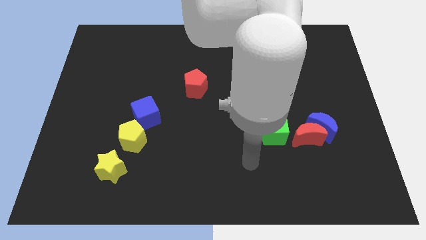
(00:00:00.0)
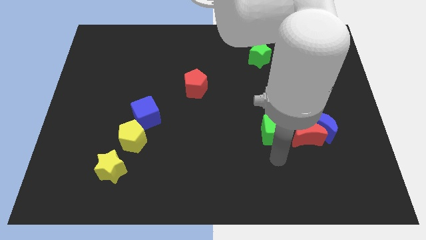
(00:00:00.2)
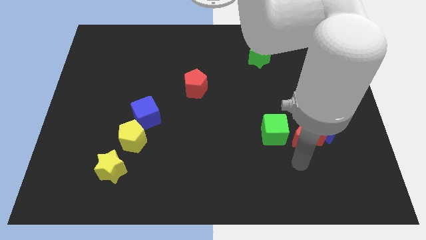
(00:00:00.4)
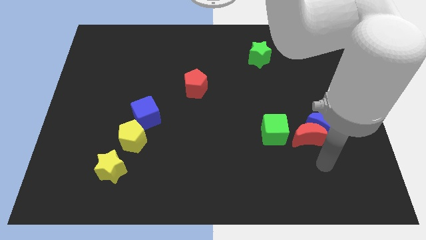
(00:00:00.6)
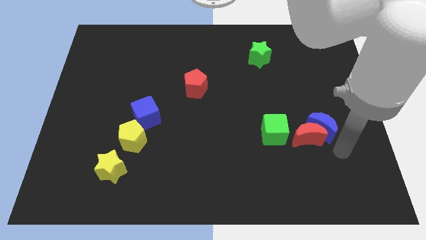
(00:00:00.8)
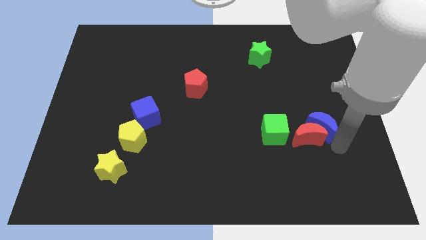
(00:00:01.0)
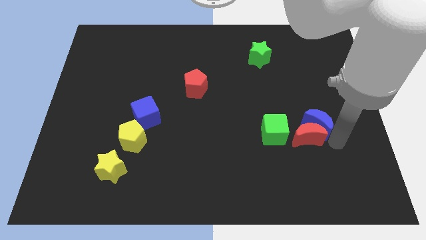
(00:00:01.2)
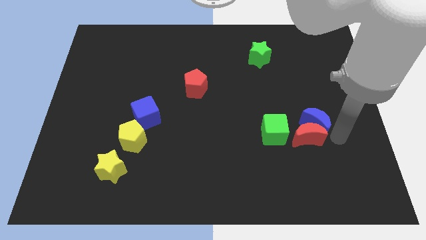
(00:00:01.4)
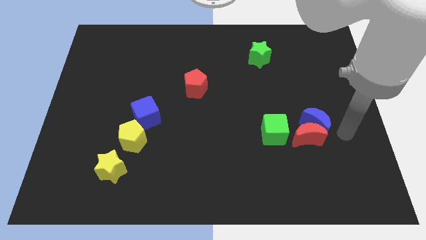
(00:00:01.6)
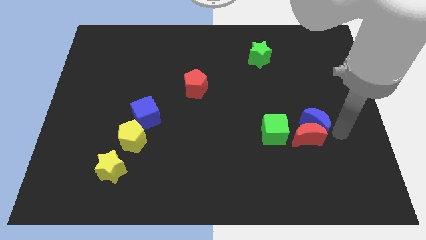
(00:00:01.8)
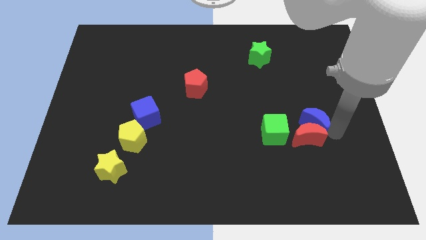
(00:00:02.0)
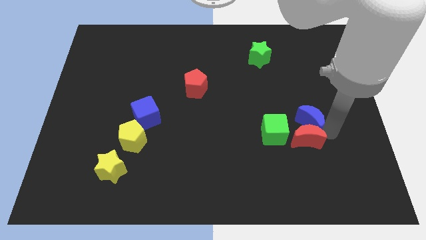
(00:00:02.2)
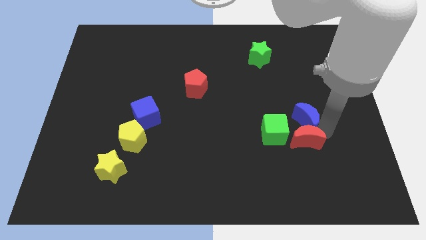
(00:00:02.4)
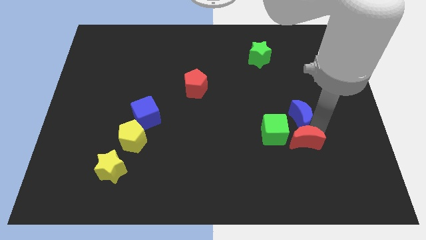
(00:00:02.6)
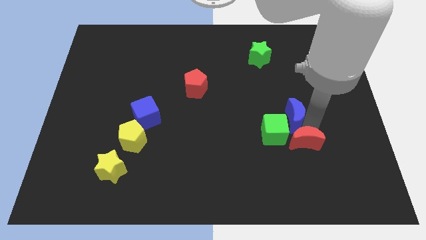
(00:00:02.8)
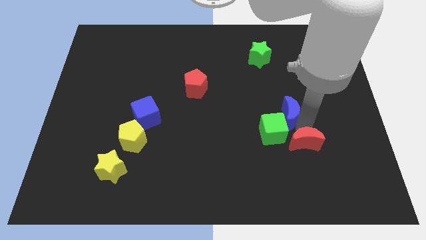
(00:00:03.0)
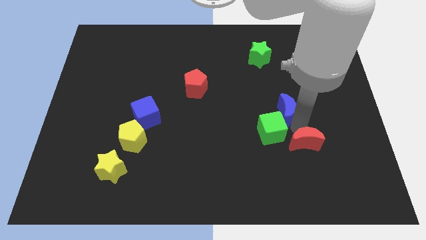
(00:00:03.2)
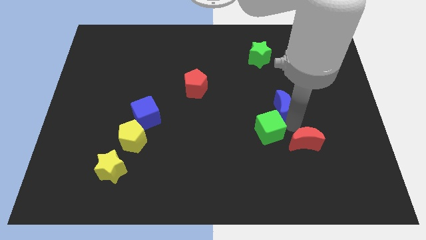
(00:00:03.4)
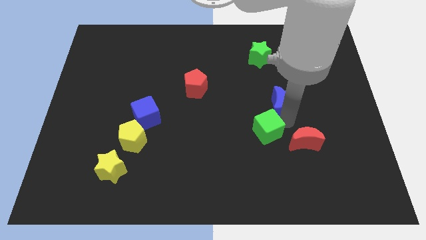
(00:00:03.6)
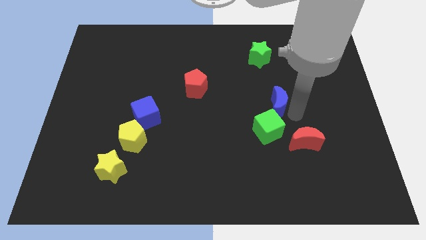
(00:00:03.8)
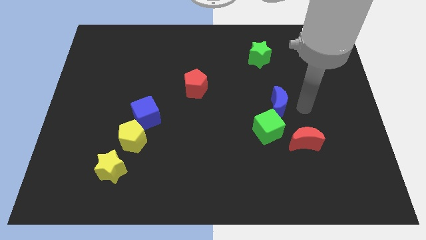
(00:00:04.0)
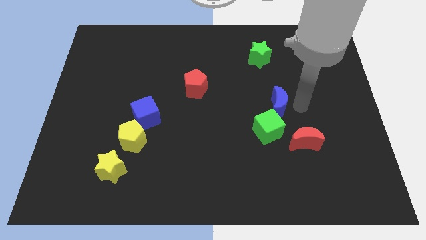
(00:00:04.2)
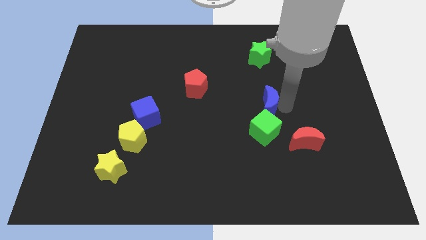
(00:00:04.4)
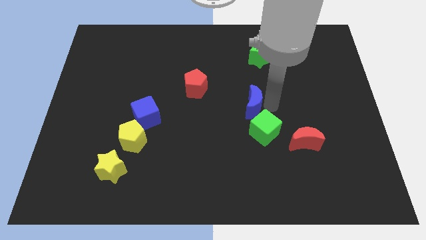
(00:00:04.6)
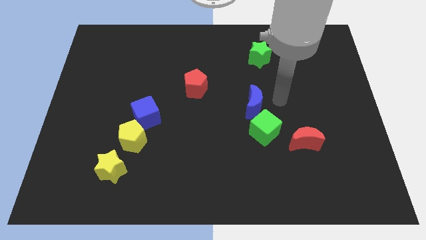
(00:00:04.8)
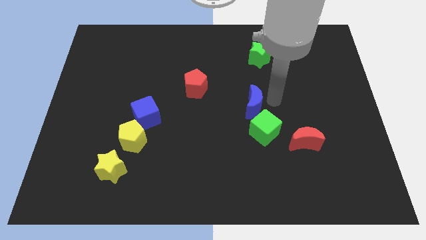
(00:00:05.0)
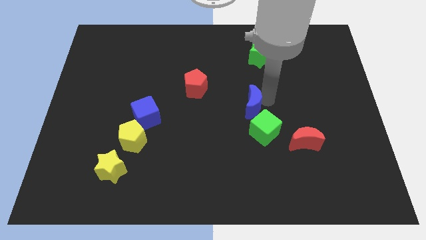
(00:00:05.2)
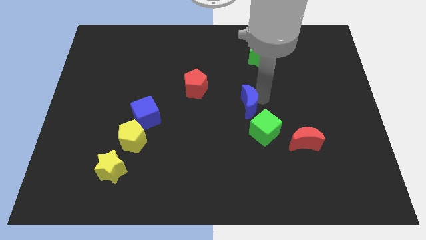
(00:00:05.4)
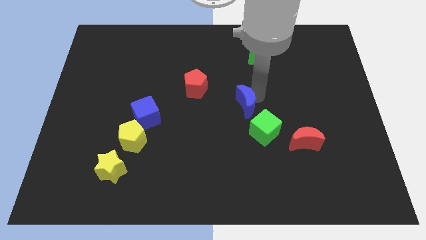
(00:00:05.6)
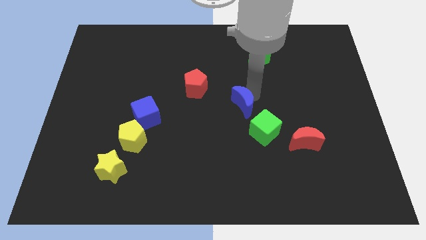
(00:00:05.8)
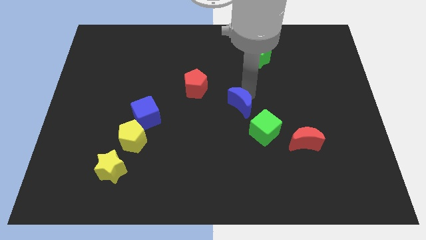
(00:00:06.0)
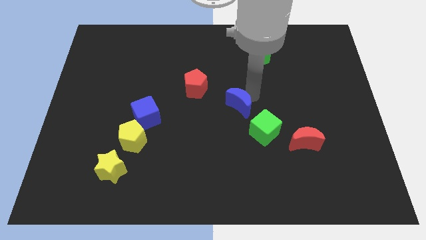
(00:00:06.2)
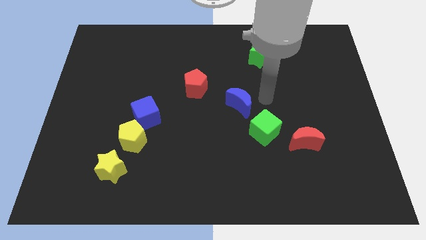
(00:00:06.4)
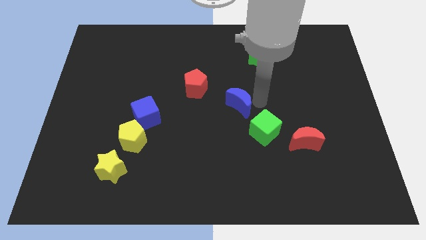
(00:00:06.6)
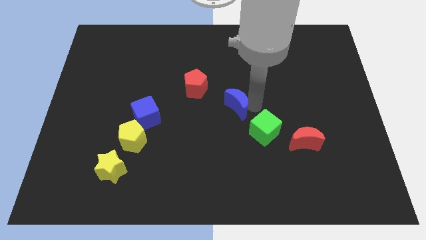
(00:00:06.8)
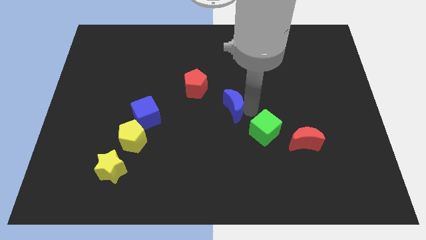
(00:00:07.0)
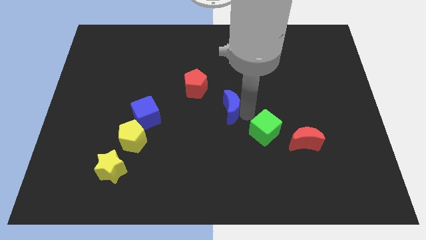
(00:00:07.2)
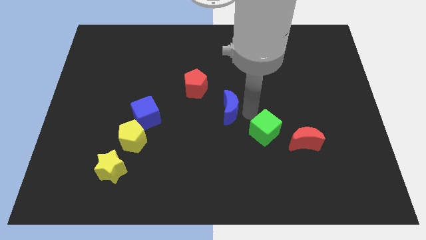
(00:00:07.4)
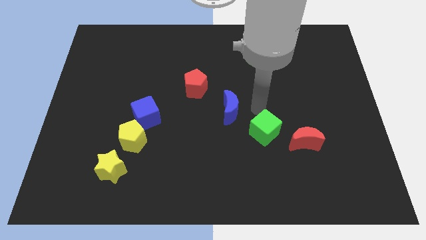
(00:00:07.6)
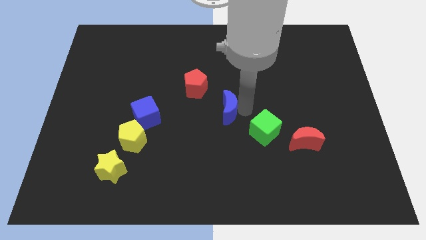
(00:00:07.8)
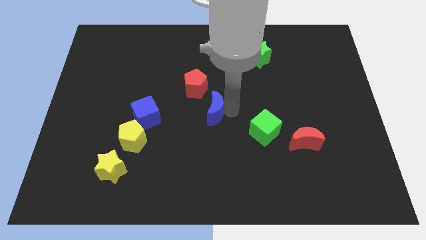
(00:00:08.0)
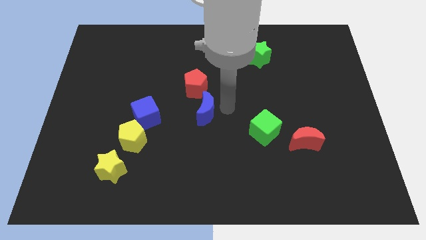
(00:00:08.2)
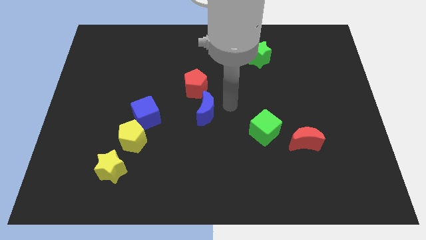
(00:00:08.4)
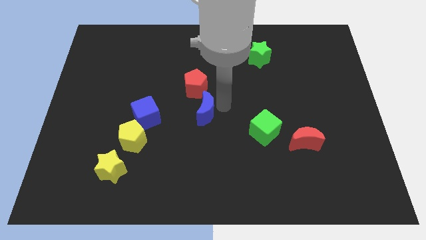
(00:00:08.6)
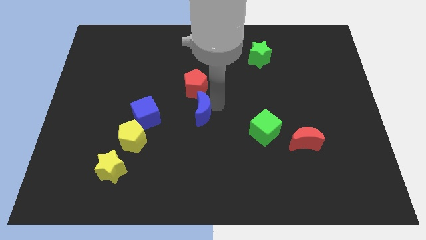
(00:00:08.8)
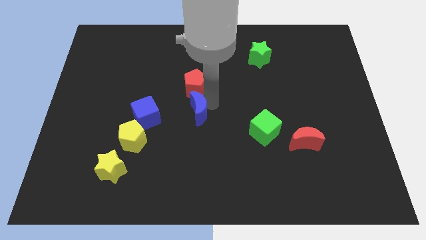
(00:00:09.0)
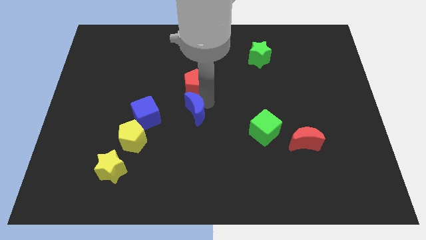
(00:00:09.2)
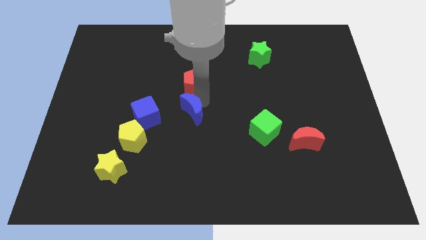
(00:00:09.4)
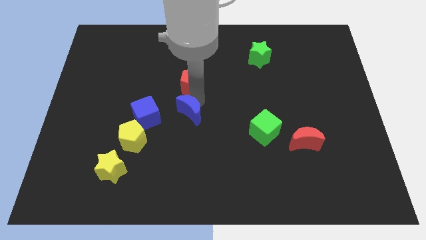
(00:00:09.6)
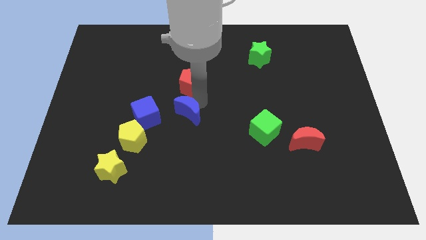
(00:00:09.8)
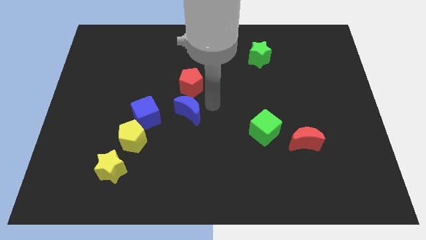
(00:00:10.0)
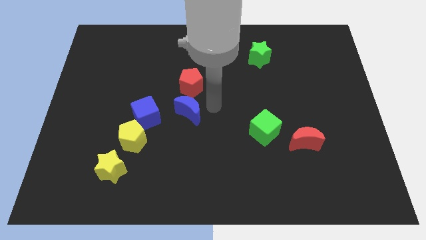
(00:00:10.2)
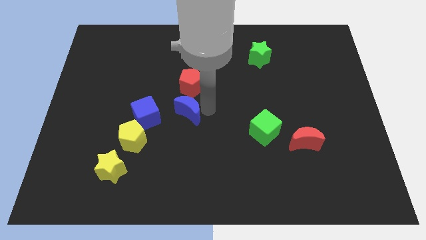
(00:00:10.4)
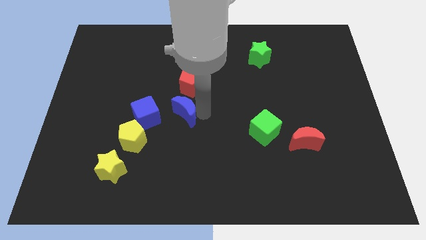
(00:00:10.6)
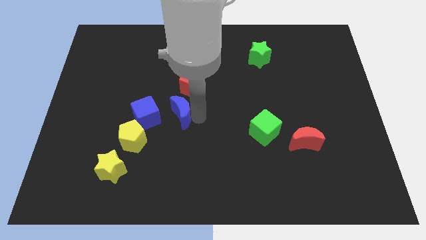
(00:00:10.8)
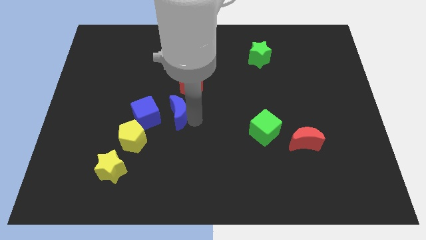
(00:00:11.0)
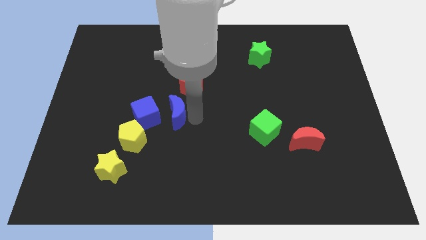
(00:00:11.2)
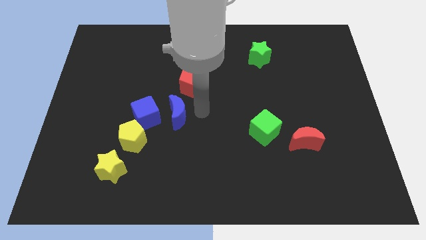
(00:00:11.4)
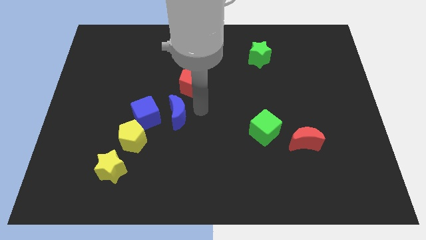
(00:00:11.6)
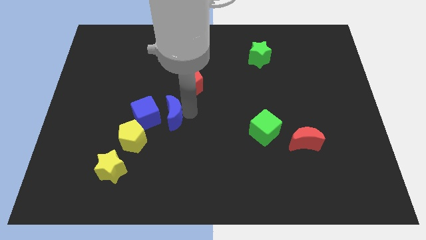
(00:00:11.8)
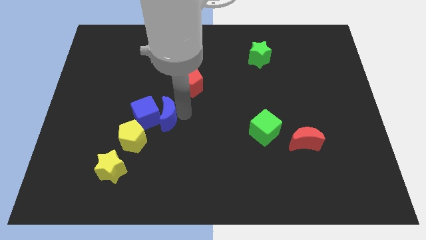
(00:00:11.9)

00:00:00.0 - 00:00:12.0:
slide the blue moon next to the blue cube

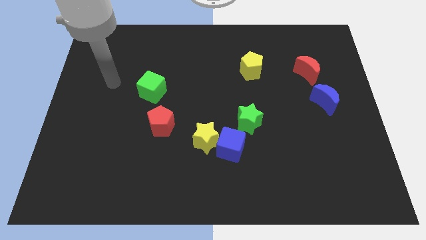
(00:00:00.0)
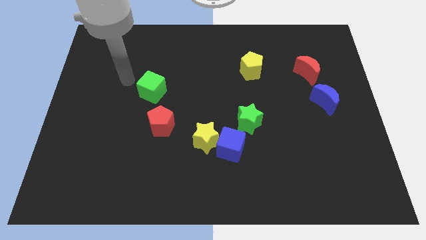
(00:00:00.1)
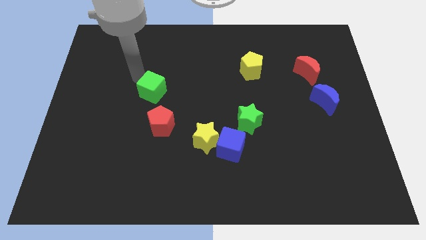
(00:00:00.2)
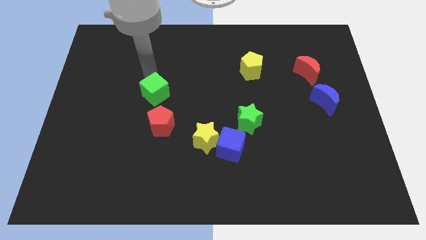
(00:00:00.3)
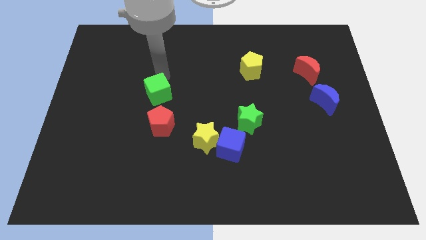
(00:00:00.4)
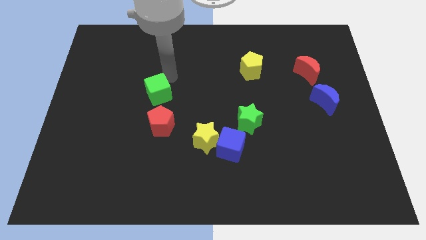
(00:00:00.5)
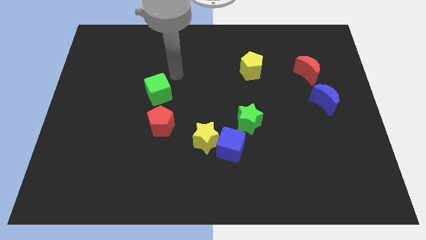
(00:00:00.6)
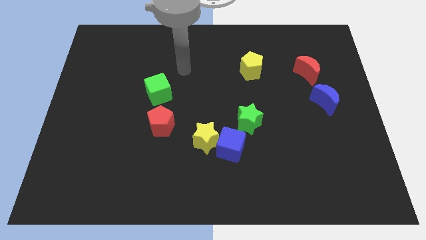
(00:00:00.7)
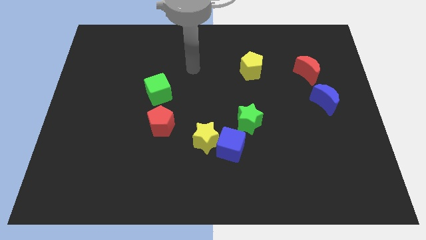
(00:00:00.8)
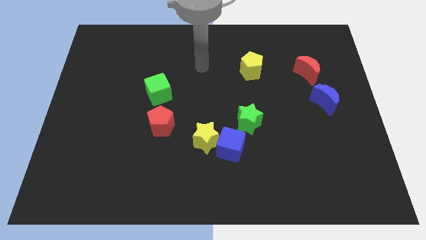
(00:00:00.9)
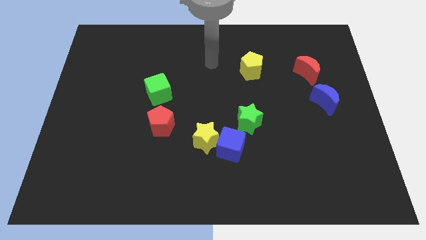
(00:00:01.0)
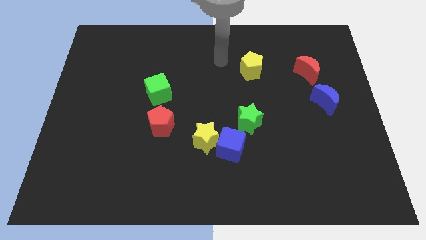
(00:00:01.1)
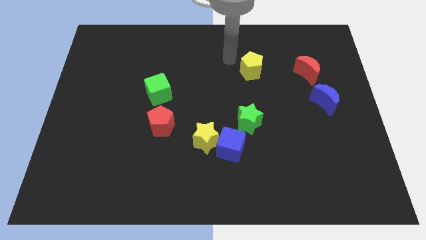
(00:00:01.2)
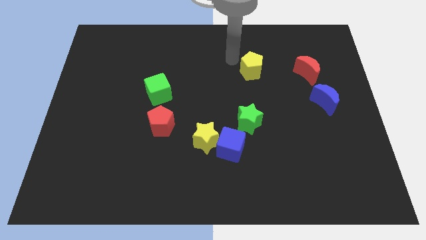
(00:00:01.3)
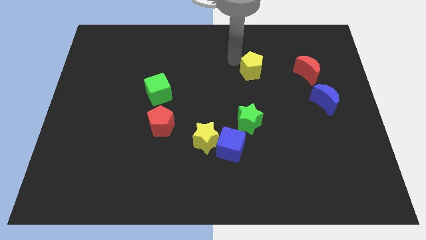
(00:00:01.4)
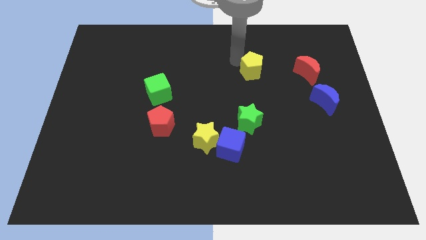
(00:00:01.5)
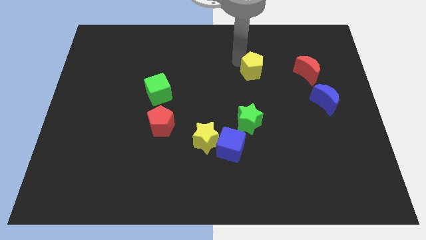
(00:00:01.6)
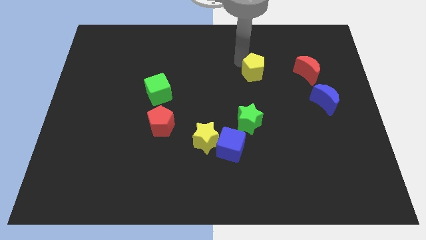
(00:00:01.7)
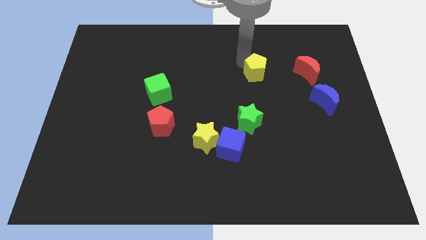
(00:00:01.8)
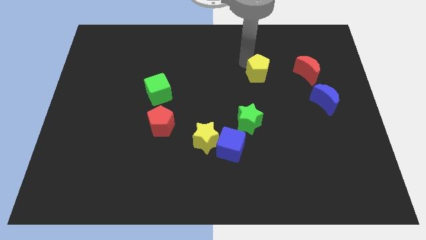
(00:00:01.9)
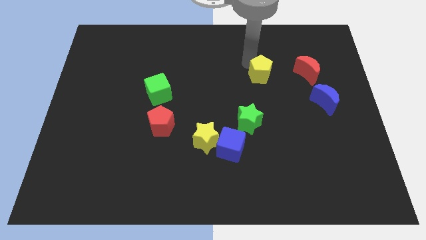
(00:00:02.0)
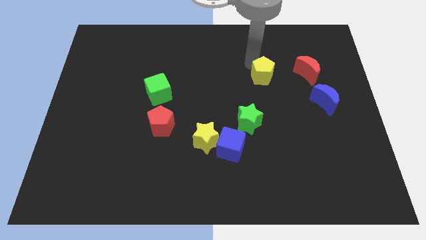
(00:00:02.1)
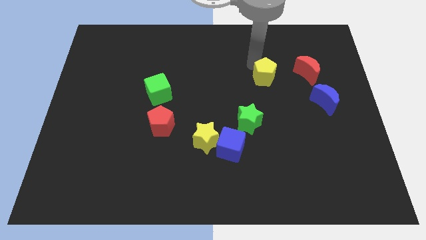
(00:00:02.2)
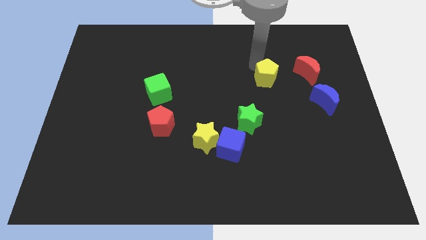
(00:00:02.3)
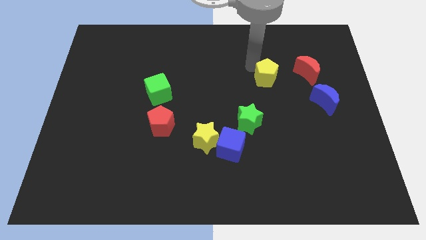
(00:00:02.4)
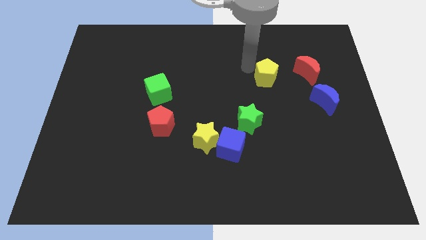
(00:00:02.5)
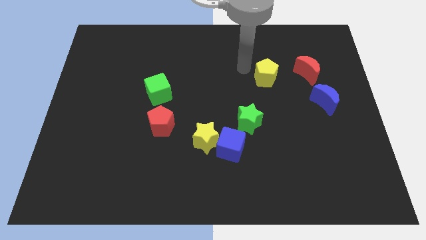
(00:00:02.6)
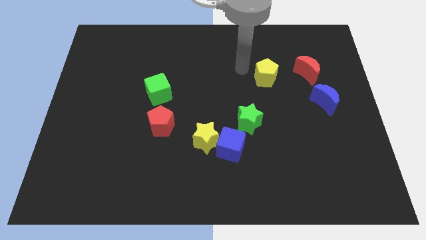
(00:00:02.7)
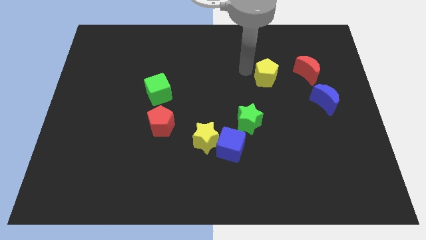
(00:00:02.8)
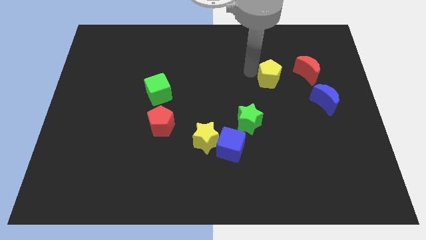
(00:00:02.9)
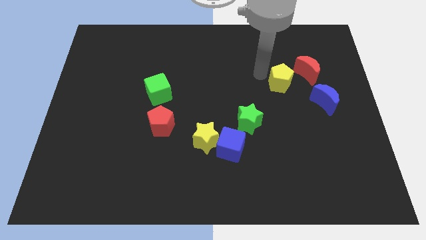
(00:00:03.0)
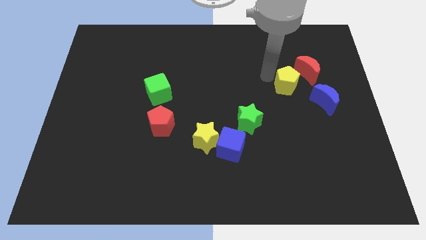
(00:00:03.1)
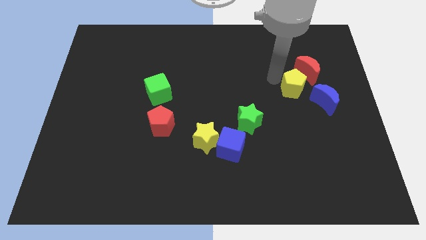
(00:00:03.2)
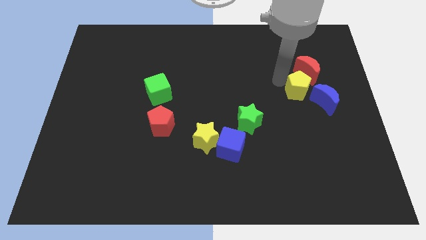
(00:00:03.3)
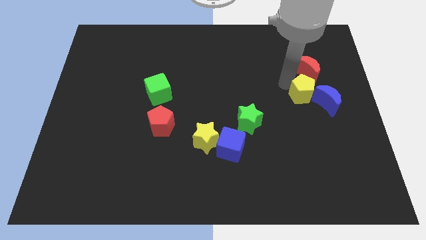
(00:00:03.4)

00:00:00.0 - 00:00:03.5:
slide the yellow pentagon close to the blue moon
